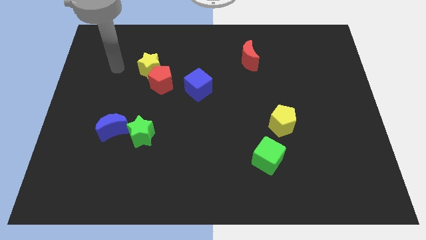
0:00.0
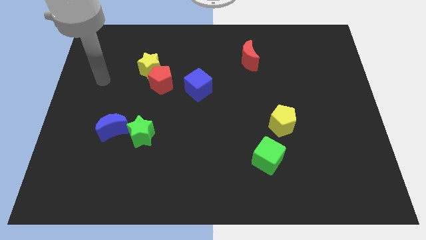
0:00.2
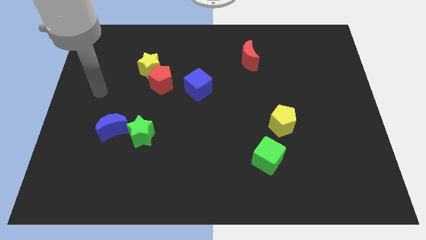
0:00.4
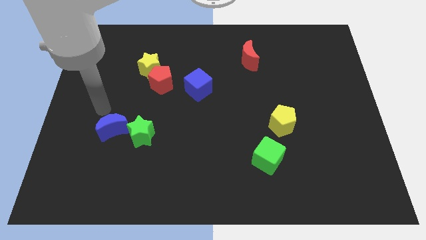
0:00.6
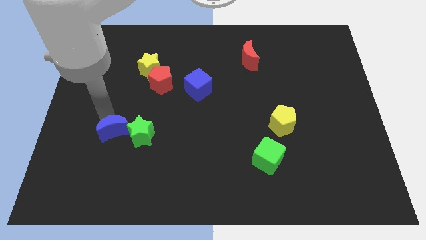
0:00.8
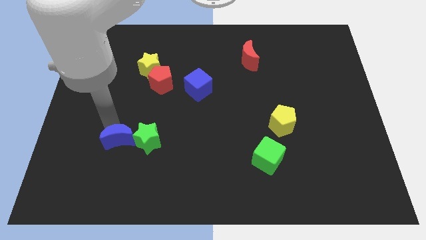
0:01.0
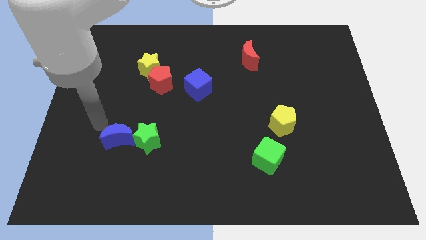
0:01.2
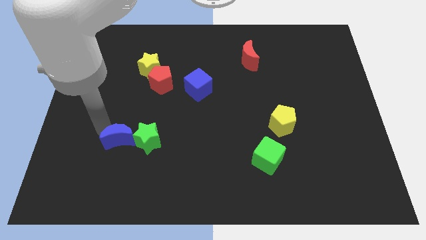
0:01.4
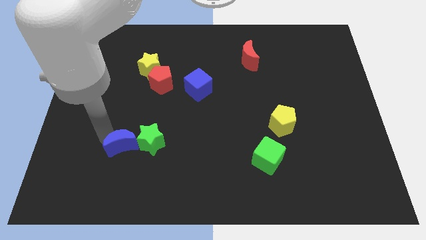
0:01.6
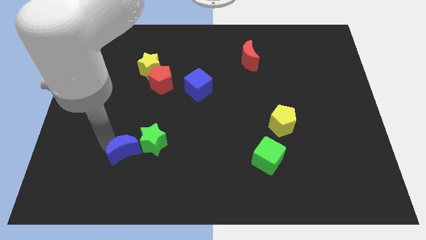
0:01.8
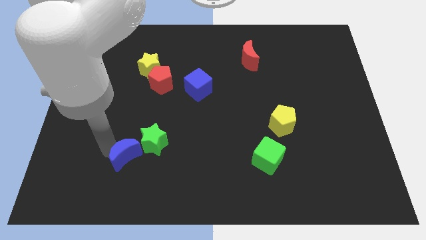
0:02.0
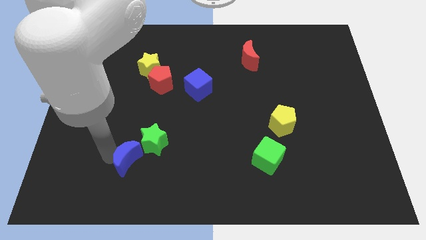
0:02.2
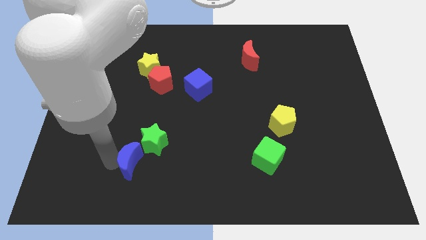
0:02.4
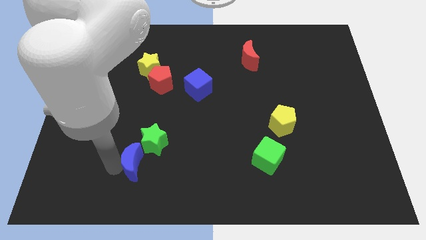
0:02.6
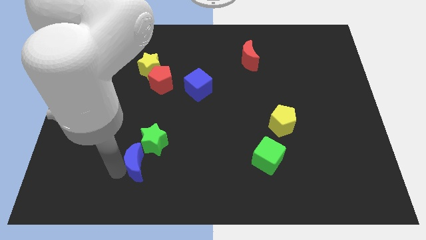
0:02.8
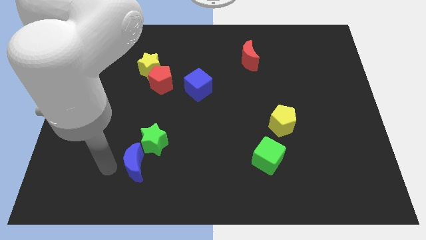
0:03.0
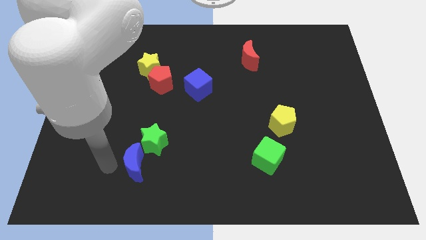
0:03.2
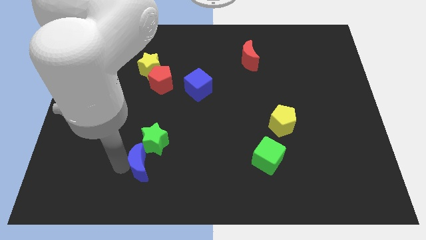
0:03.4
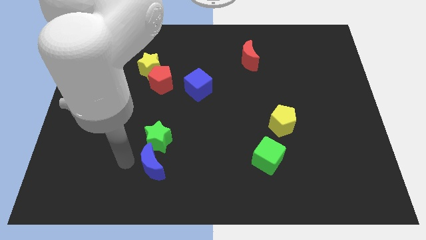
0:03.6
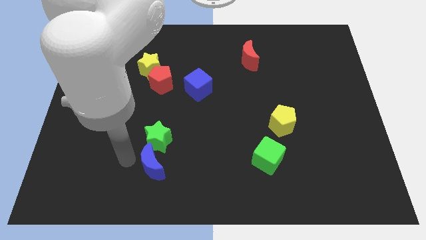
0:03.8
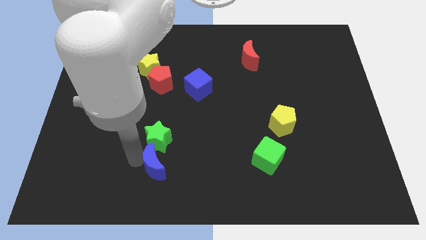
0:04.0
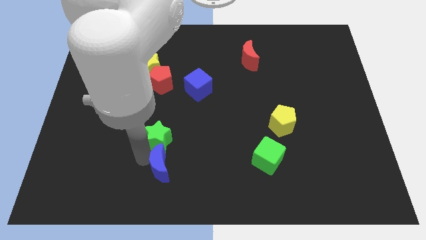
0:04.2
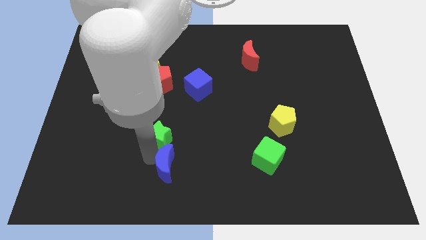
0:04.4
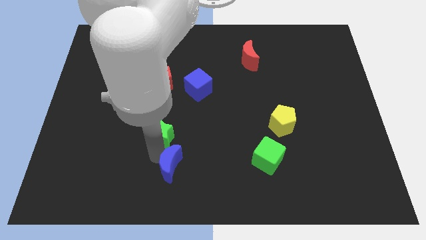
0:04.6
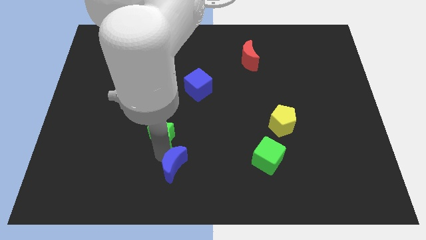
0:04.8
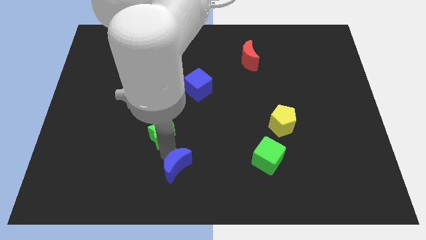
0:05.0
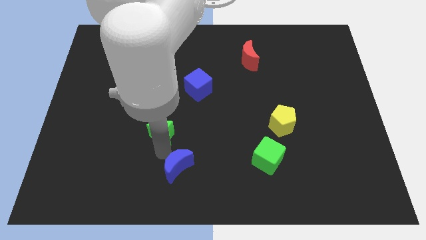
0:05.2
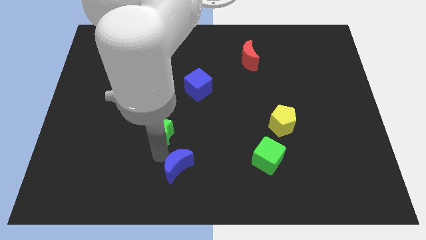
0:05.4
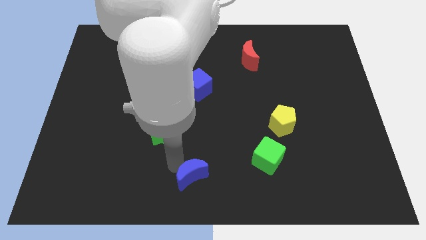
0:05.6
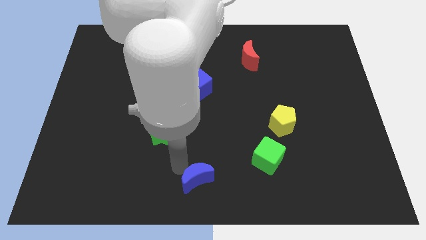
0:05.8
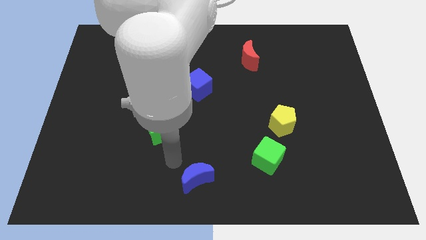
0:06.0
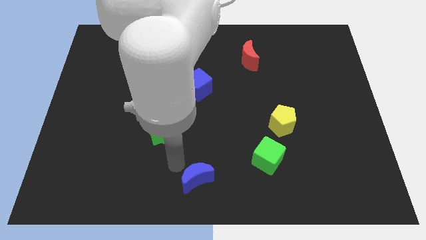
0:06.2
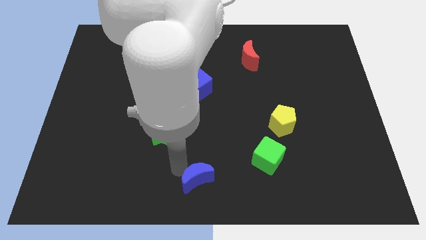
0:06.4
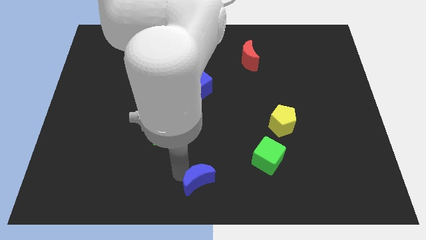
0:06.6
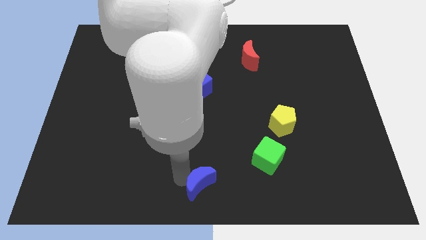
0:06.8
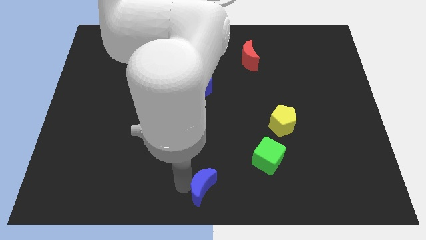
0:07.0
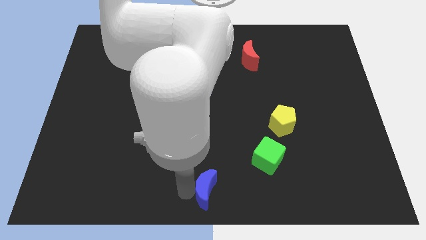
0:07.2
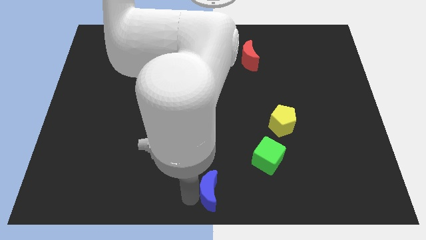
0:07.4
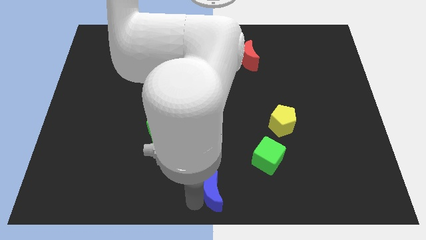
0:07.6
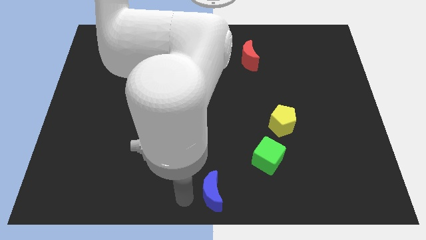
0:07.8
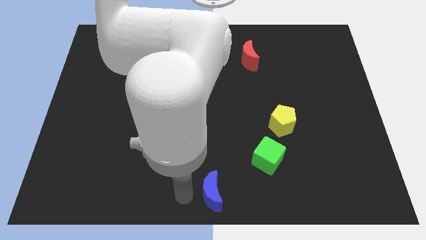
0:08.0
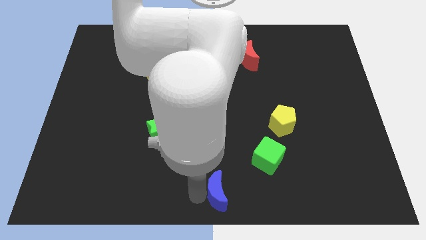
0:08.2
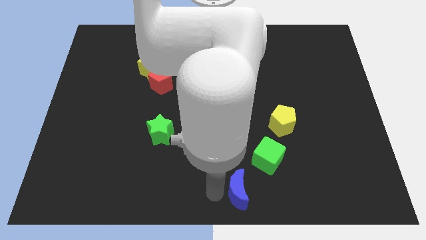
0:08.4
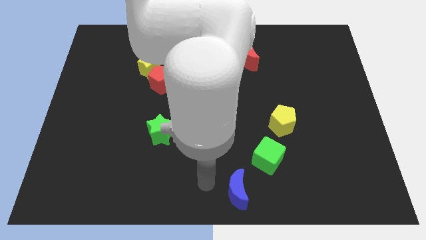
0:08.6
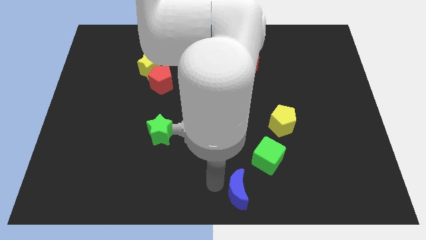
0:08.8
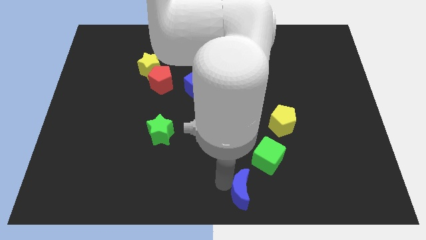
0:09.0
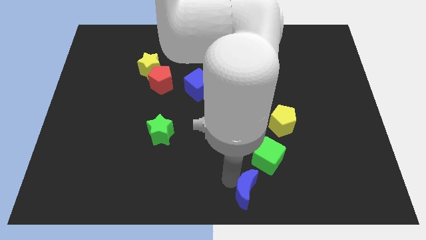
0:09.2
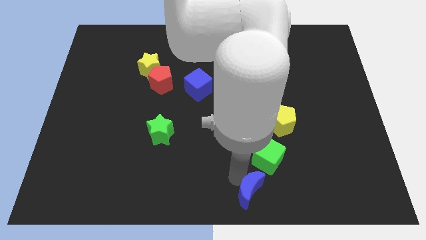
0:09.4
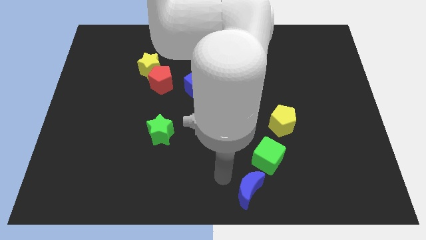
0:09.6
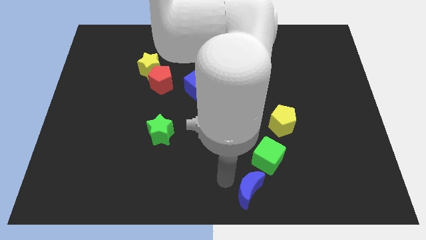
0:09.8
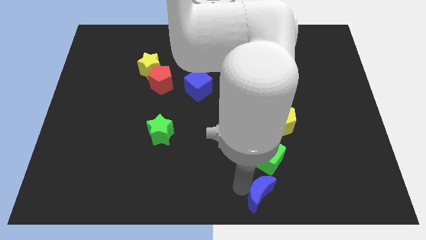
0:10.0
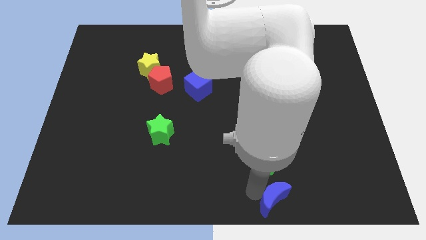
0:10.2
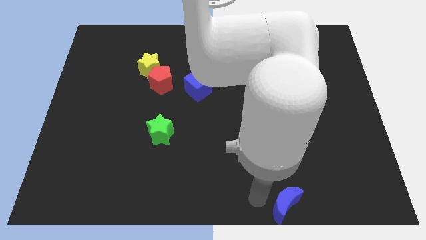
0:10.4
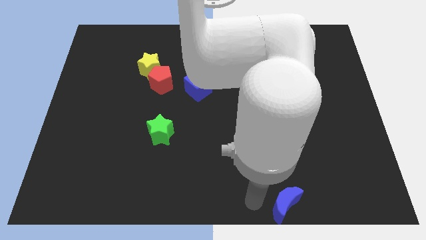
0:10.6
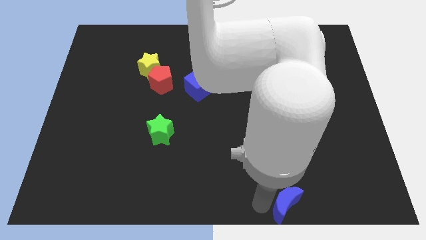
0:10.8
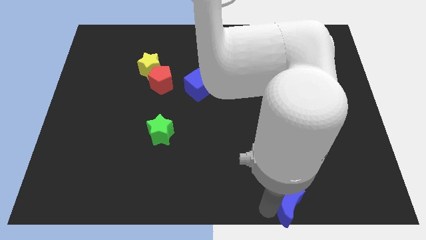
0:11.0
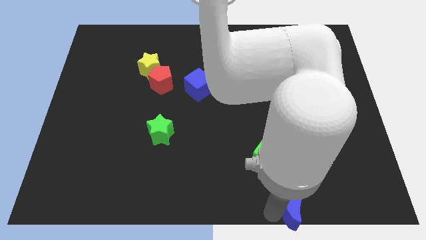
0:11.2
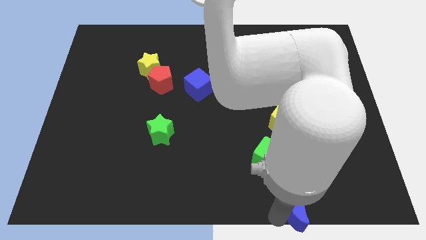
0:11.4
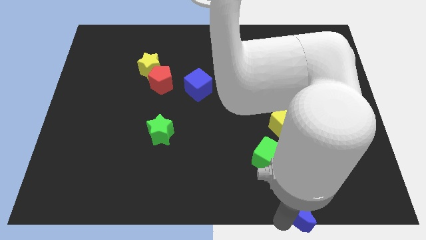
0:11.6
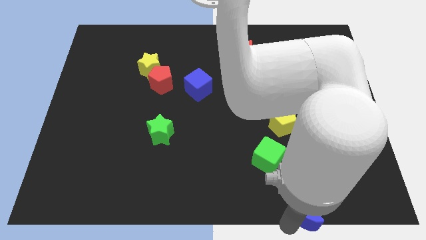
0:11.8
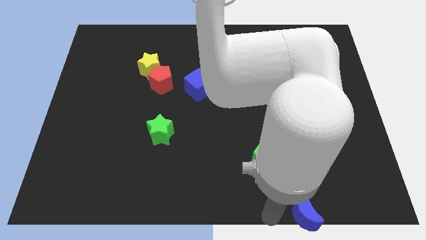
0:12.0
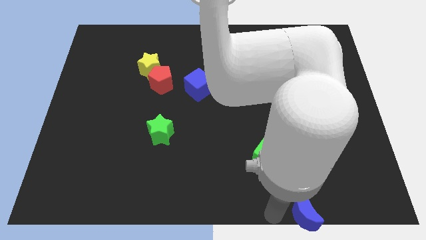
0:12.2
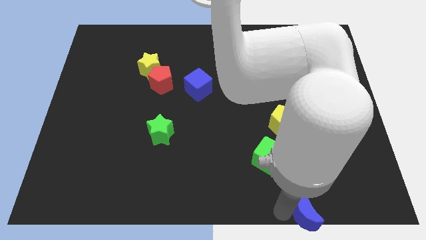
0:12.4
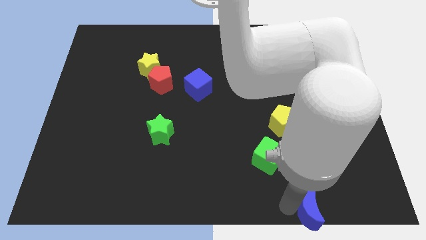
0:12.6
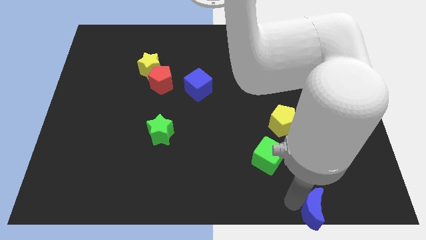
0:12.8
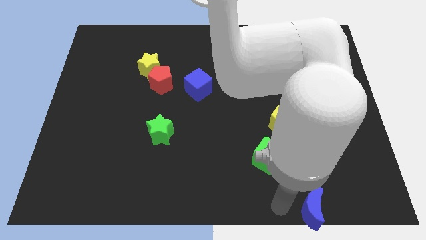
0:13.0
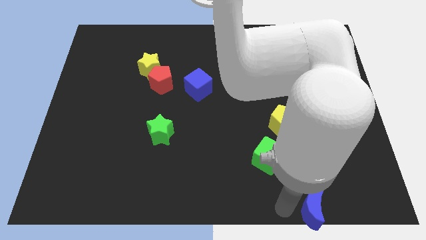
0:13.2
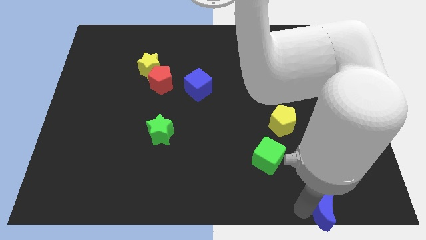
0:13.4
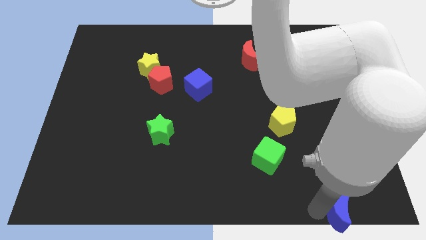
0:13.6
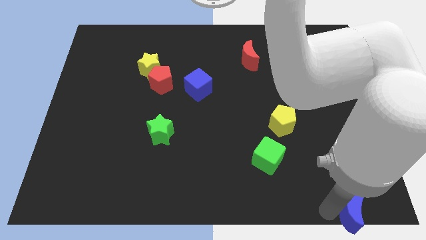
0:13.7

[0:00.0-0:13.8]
push the blue moon to the bottom right of the board
